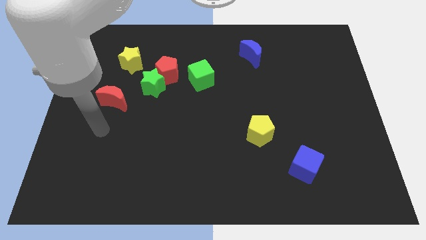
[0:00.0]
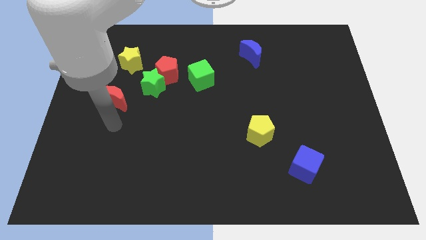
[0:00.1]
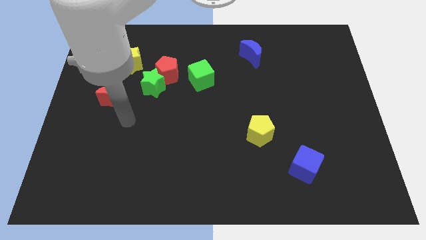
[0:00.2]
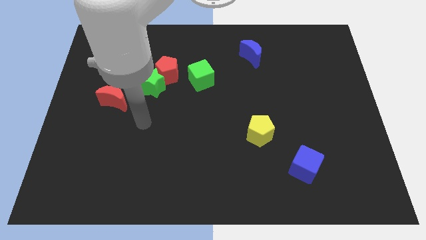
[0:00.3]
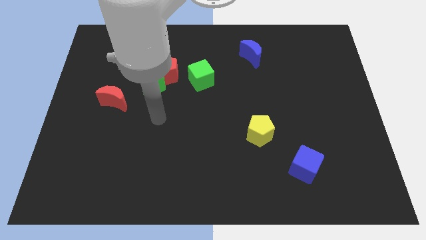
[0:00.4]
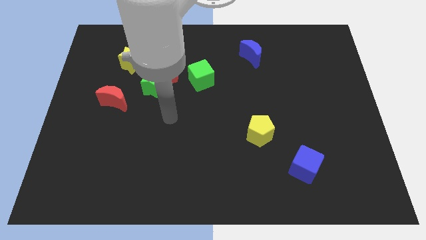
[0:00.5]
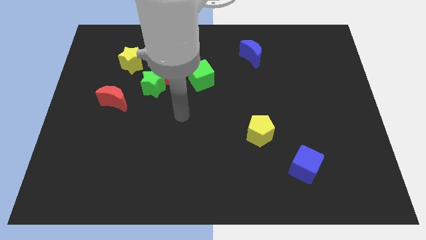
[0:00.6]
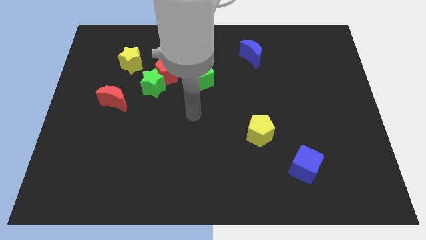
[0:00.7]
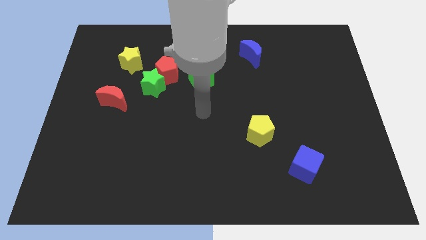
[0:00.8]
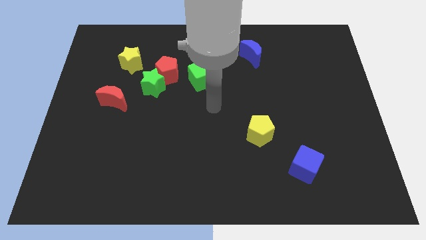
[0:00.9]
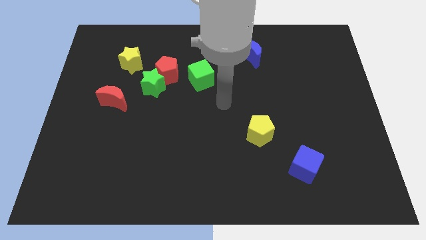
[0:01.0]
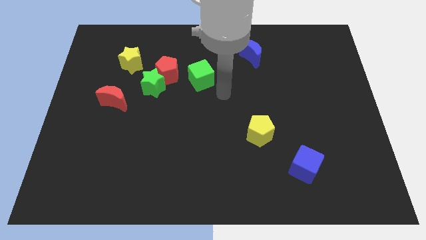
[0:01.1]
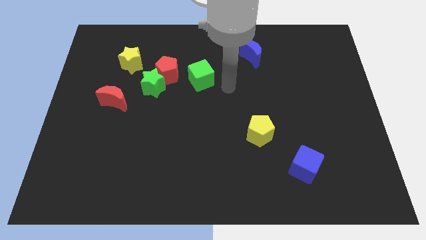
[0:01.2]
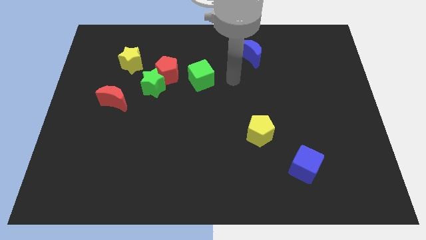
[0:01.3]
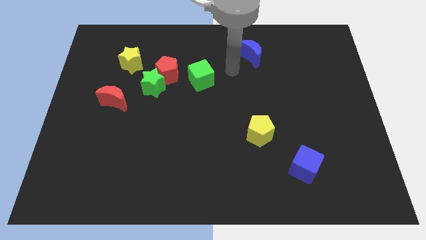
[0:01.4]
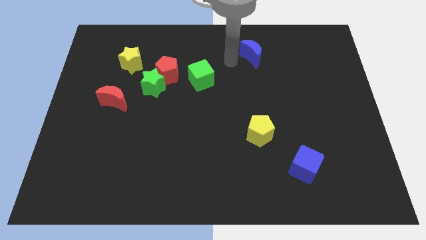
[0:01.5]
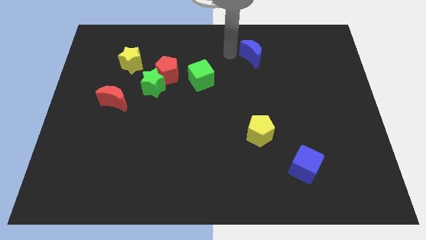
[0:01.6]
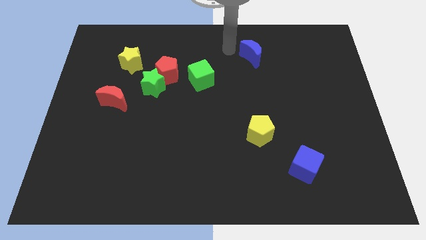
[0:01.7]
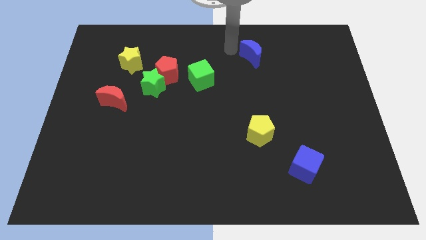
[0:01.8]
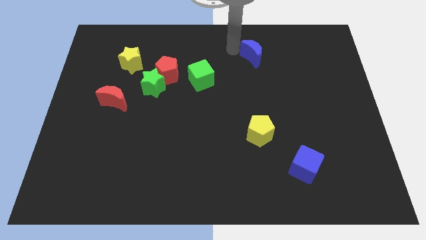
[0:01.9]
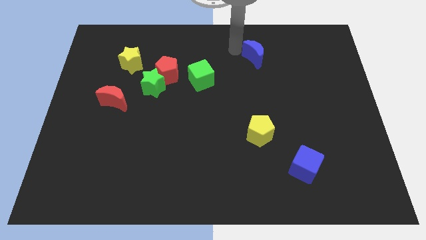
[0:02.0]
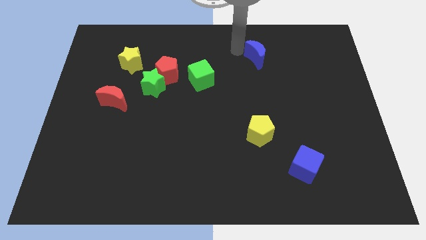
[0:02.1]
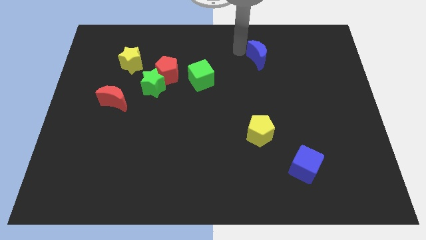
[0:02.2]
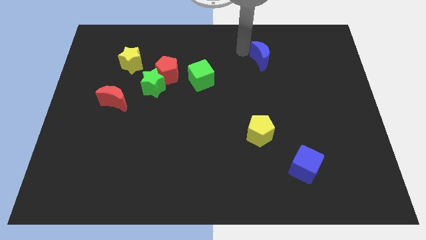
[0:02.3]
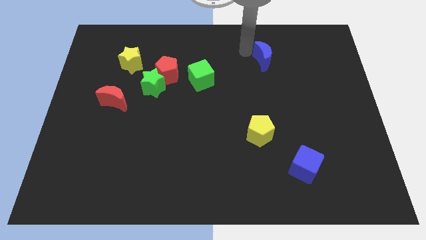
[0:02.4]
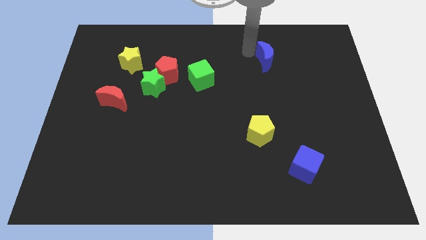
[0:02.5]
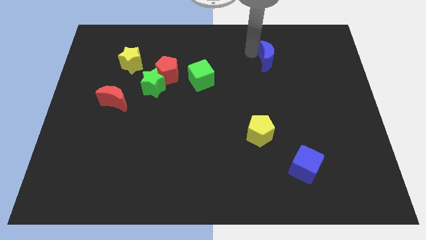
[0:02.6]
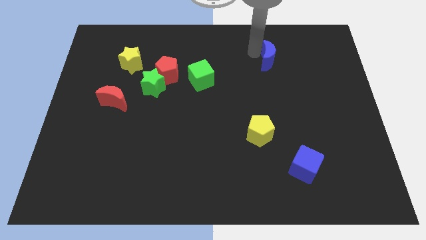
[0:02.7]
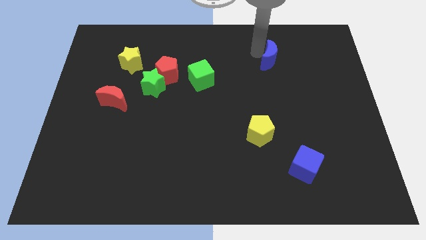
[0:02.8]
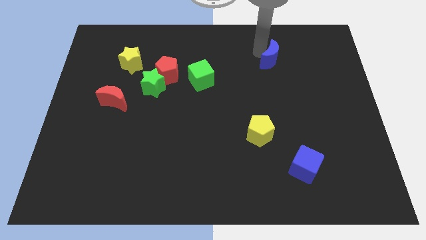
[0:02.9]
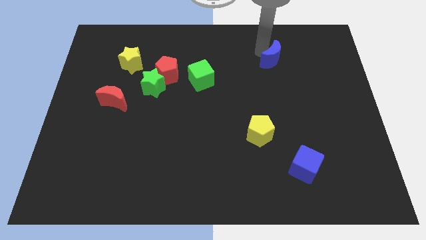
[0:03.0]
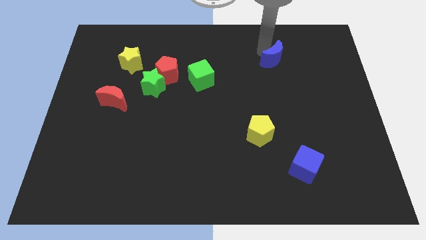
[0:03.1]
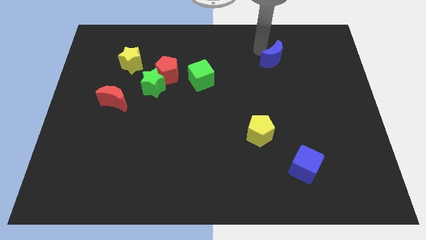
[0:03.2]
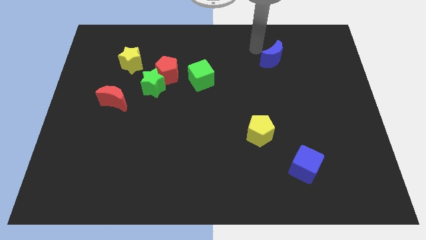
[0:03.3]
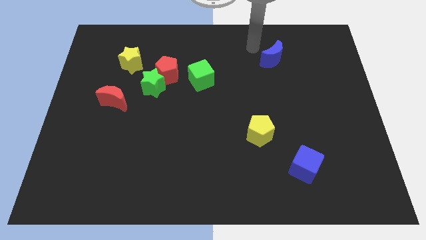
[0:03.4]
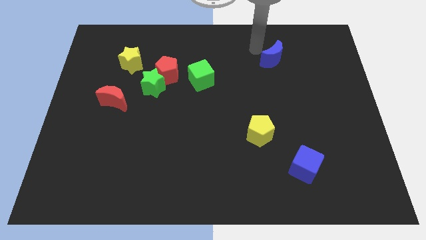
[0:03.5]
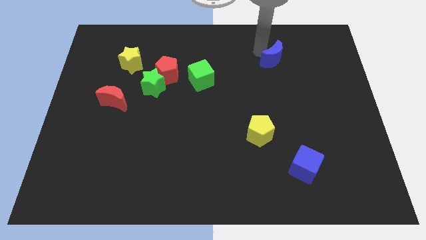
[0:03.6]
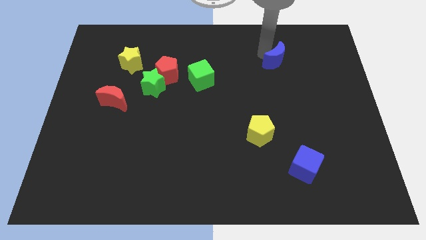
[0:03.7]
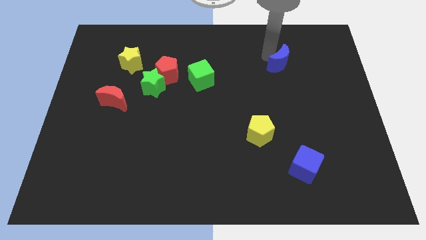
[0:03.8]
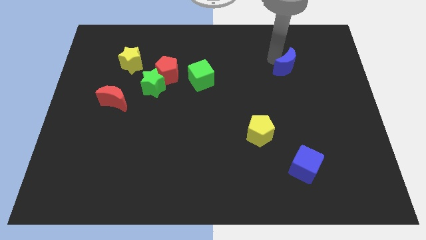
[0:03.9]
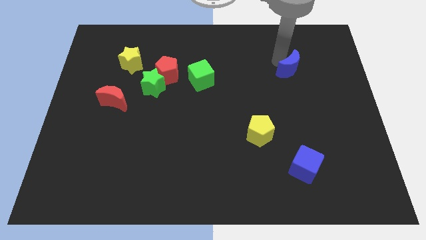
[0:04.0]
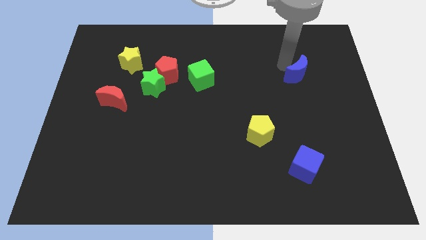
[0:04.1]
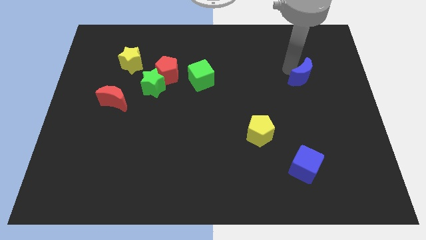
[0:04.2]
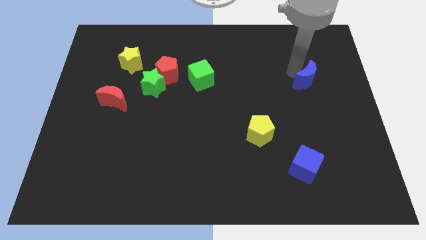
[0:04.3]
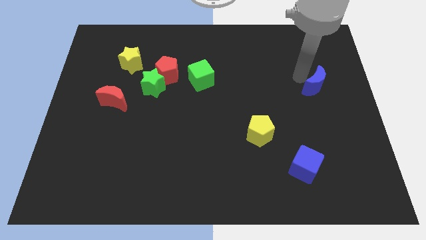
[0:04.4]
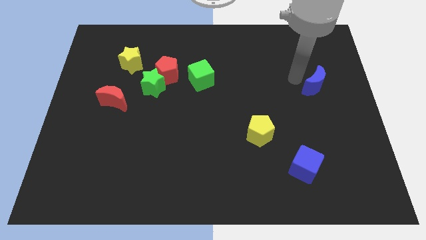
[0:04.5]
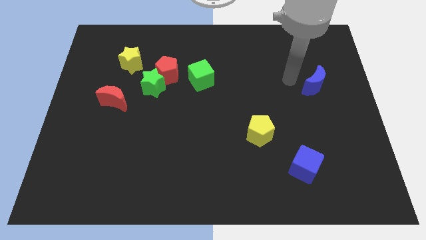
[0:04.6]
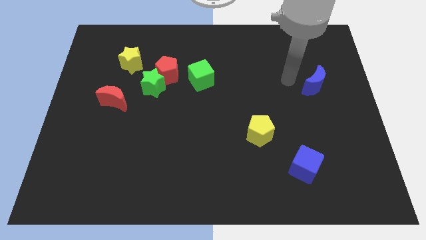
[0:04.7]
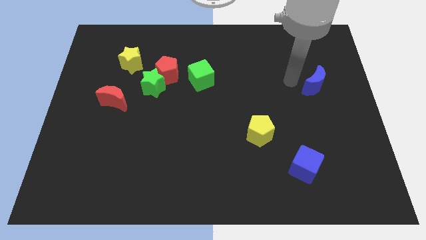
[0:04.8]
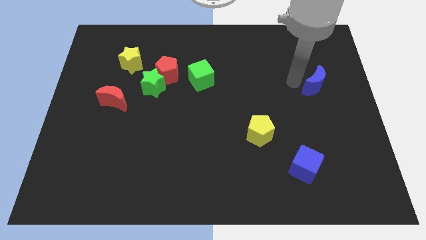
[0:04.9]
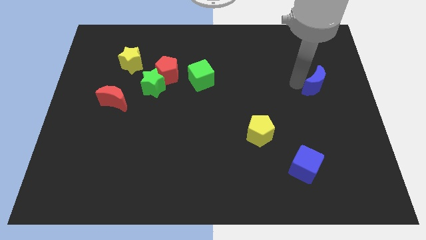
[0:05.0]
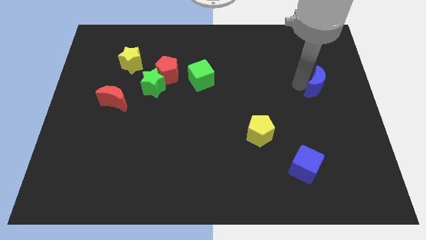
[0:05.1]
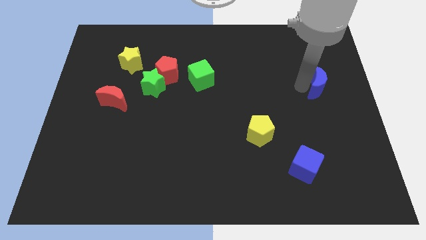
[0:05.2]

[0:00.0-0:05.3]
slide the blue moon to the center right

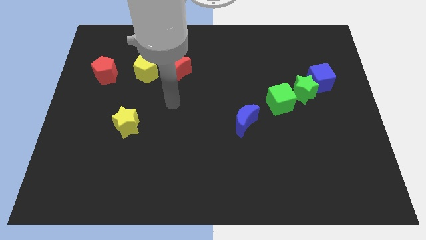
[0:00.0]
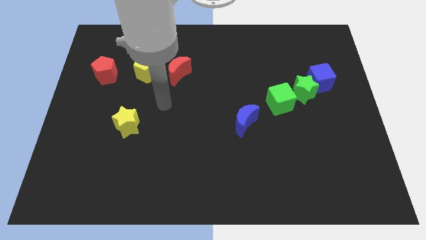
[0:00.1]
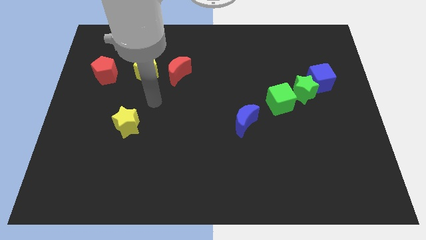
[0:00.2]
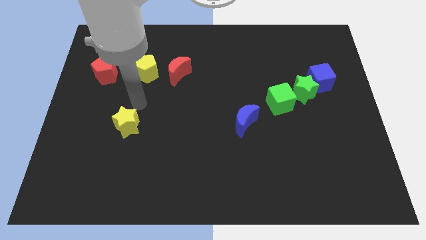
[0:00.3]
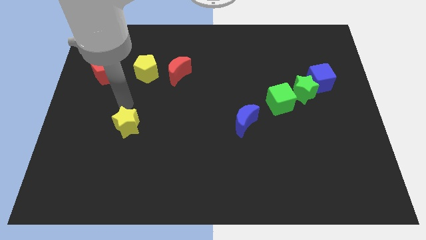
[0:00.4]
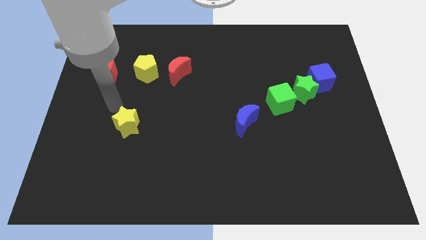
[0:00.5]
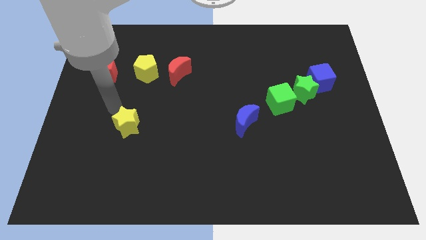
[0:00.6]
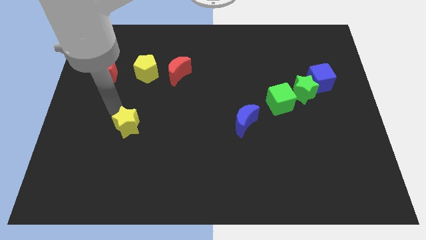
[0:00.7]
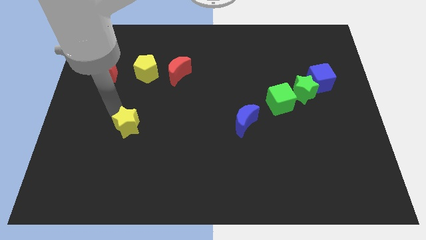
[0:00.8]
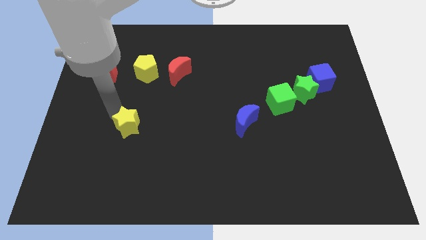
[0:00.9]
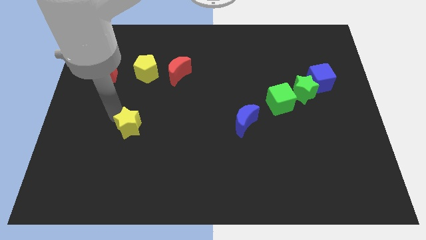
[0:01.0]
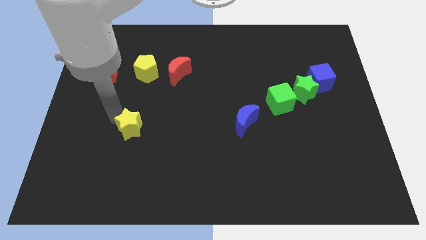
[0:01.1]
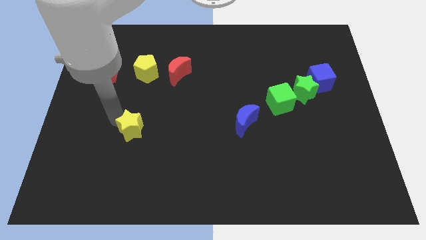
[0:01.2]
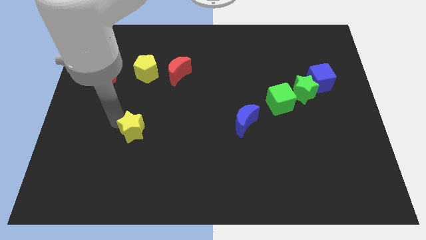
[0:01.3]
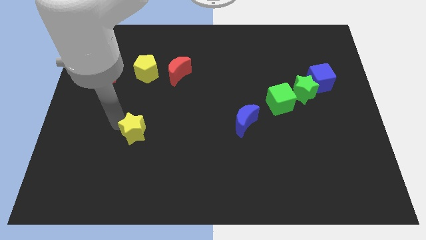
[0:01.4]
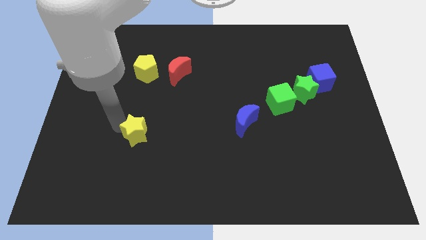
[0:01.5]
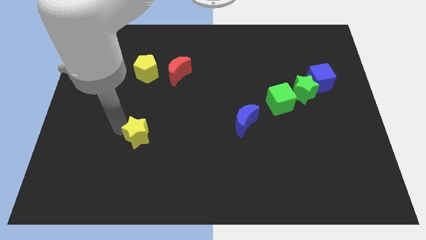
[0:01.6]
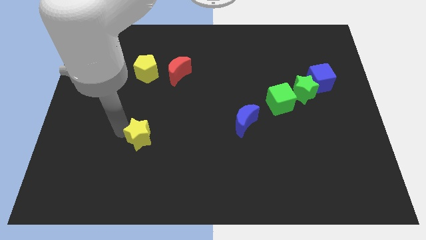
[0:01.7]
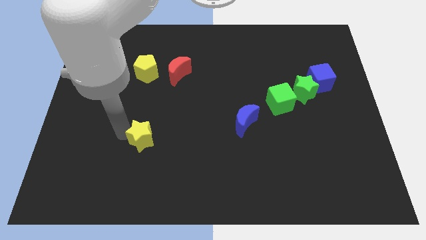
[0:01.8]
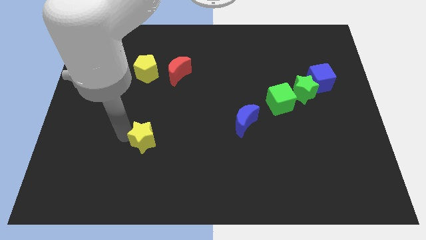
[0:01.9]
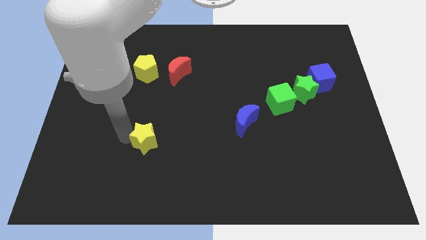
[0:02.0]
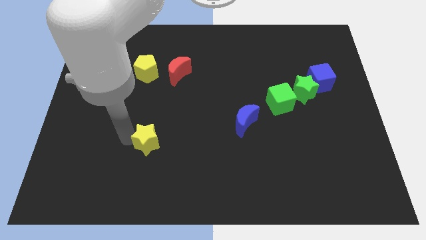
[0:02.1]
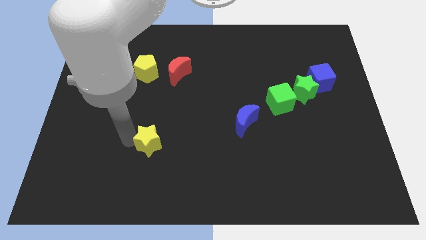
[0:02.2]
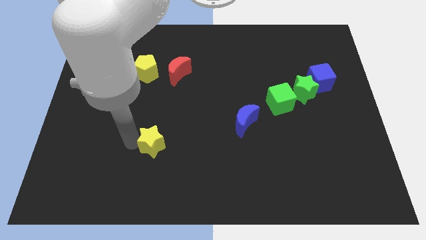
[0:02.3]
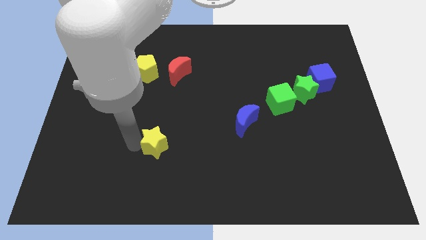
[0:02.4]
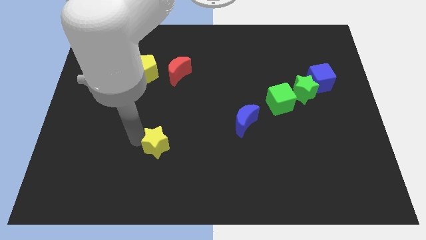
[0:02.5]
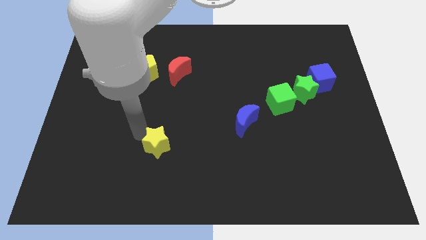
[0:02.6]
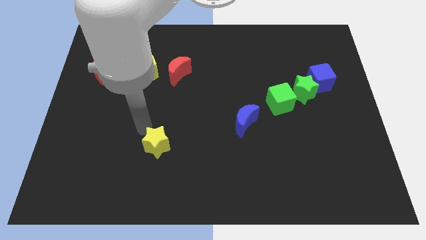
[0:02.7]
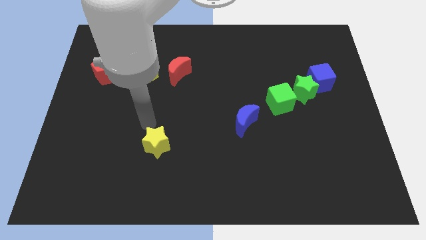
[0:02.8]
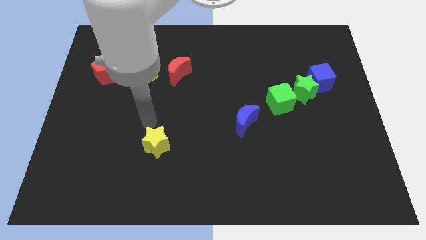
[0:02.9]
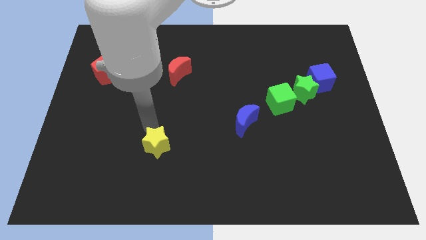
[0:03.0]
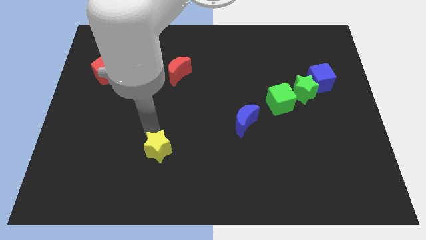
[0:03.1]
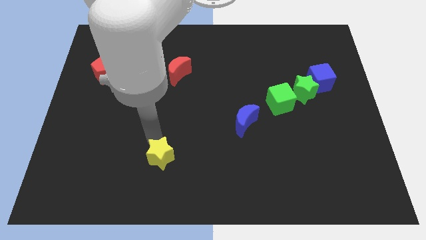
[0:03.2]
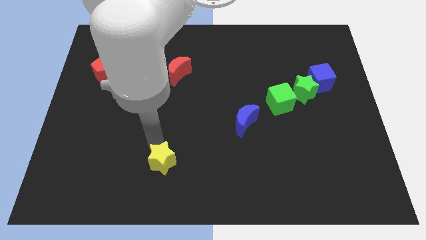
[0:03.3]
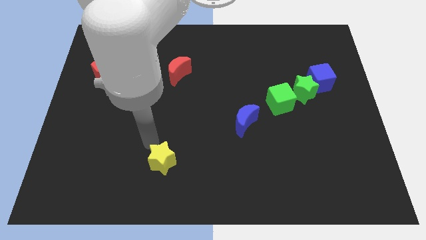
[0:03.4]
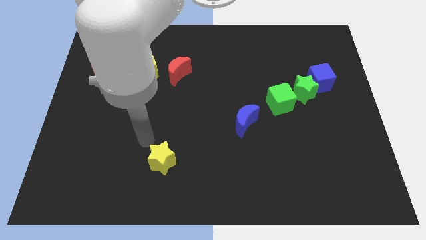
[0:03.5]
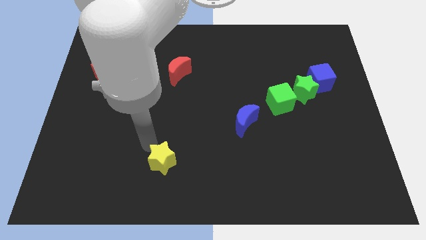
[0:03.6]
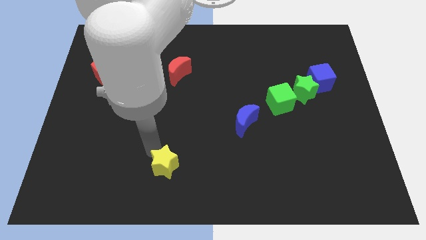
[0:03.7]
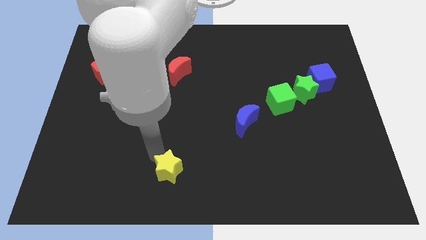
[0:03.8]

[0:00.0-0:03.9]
push the yellow star to the bottom side
